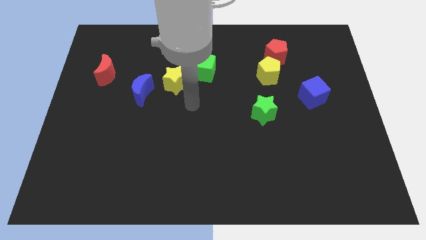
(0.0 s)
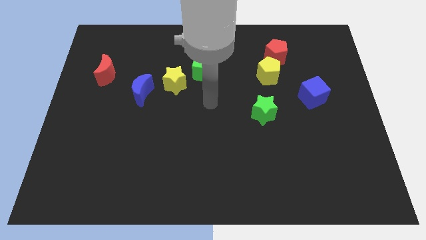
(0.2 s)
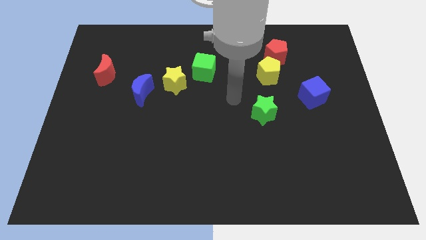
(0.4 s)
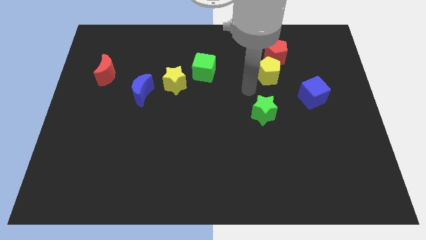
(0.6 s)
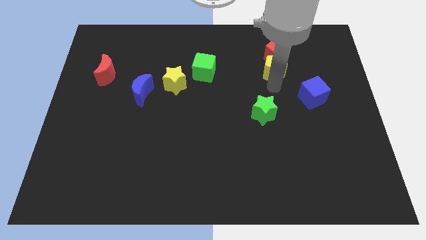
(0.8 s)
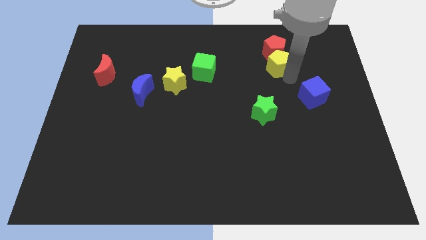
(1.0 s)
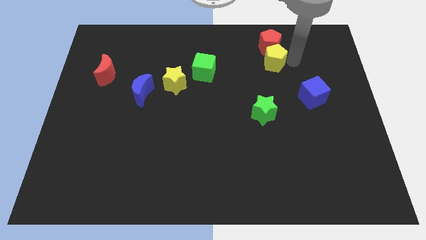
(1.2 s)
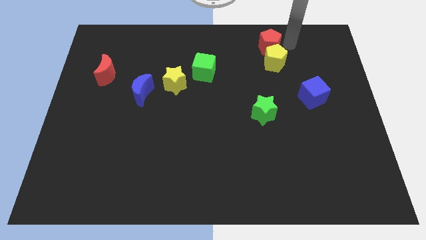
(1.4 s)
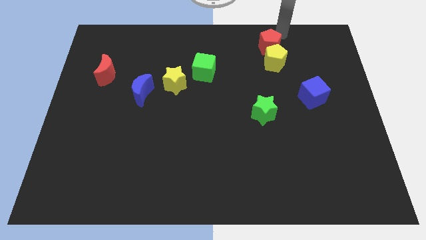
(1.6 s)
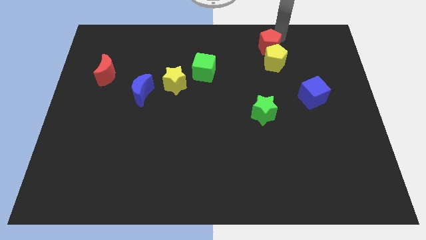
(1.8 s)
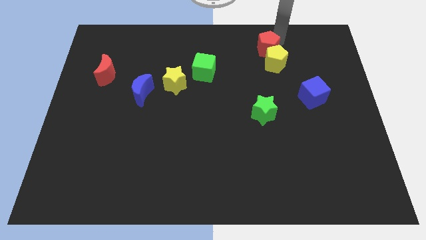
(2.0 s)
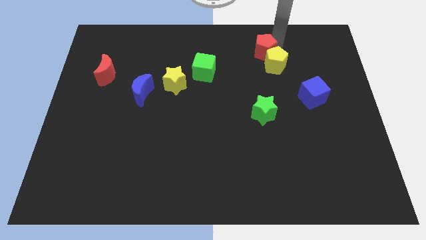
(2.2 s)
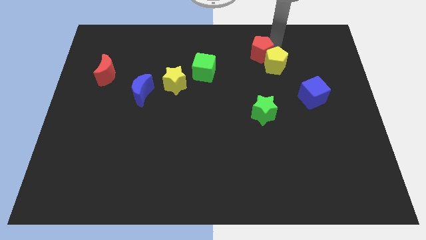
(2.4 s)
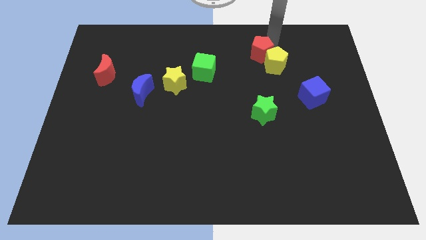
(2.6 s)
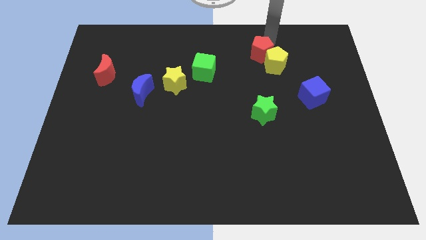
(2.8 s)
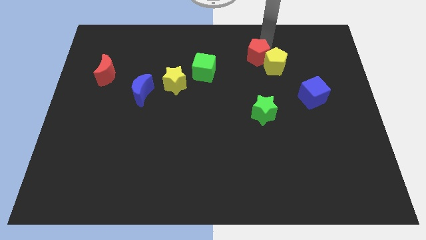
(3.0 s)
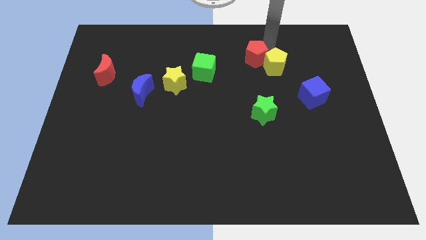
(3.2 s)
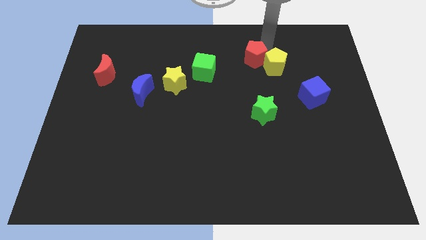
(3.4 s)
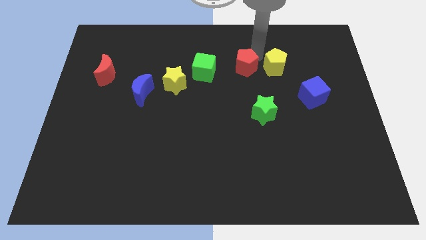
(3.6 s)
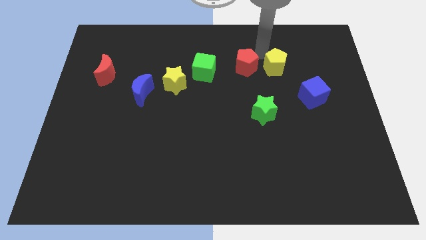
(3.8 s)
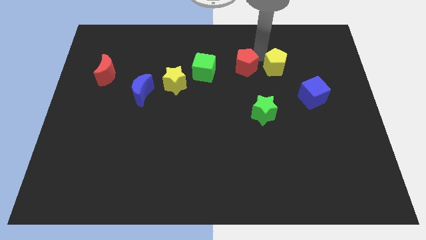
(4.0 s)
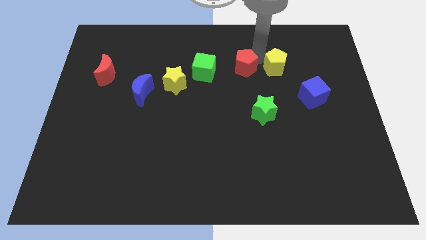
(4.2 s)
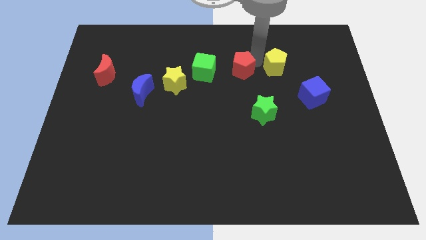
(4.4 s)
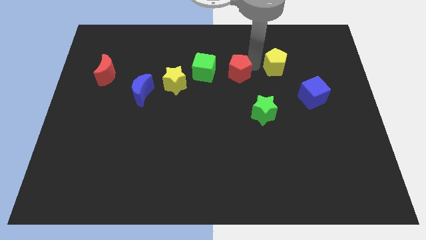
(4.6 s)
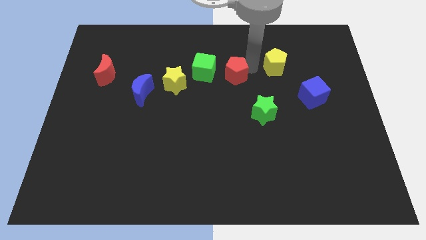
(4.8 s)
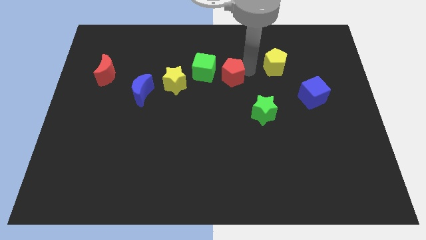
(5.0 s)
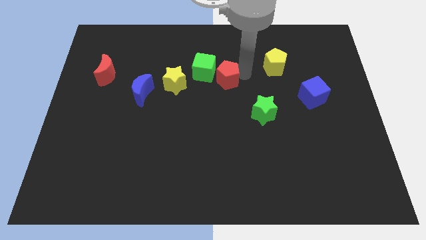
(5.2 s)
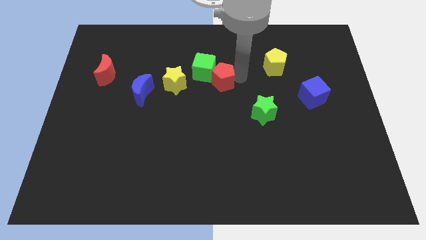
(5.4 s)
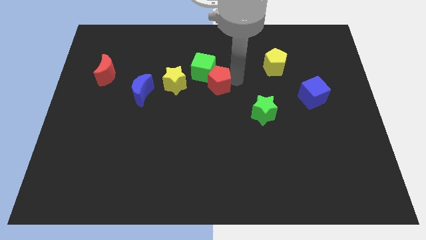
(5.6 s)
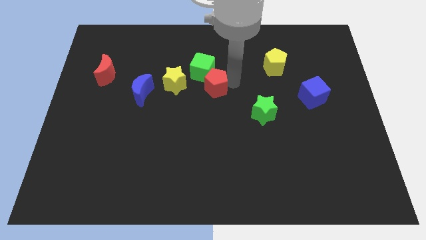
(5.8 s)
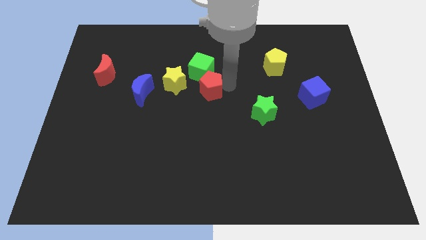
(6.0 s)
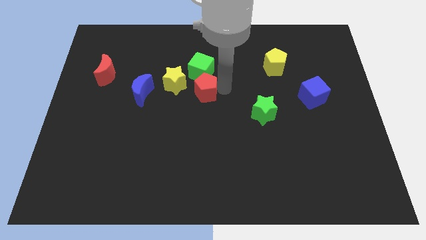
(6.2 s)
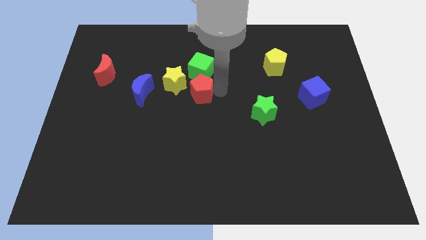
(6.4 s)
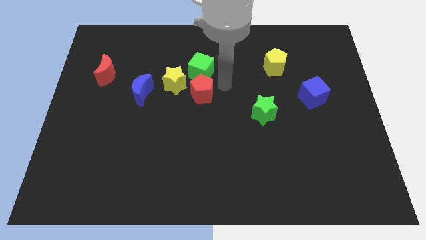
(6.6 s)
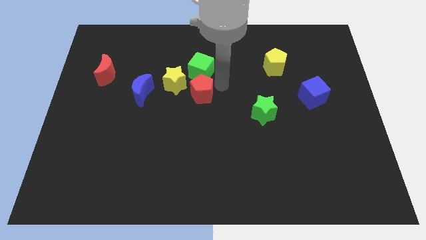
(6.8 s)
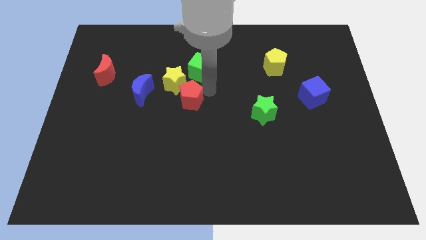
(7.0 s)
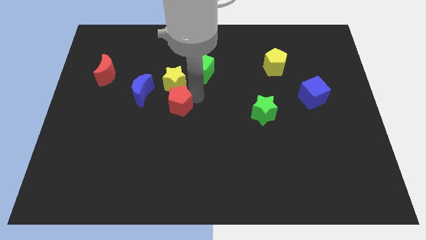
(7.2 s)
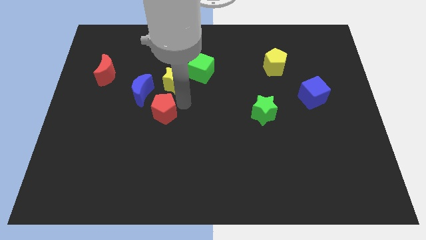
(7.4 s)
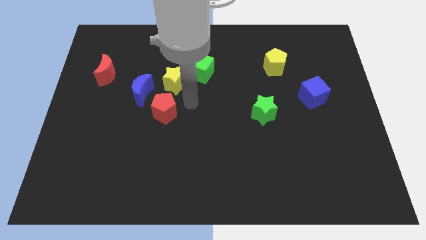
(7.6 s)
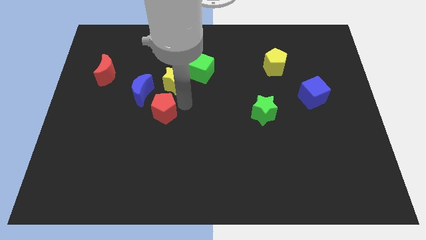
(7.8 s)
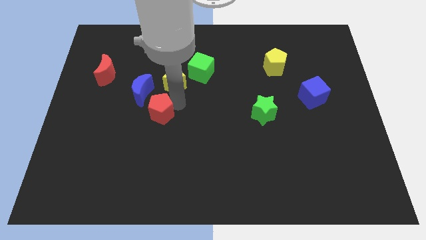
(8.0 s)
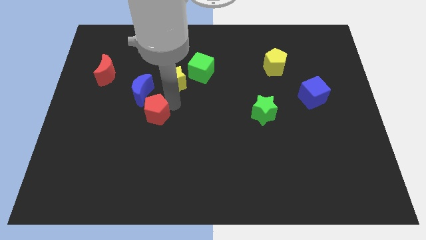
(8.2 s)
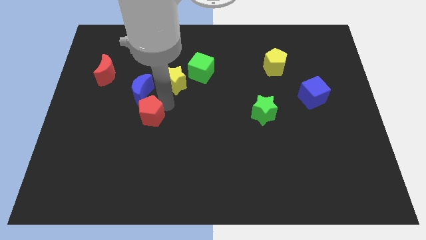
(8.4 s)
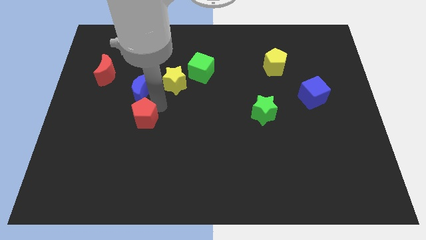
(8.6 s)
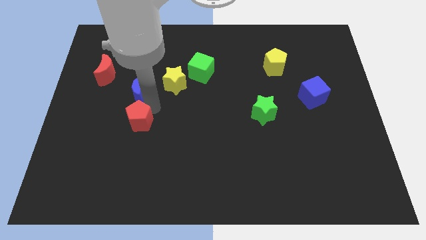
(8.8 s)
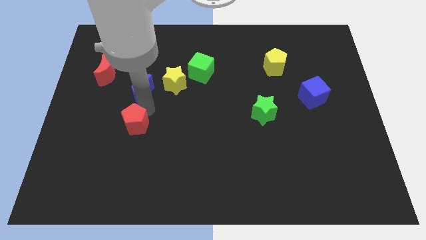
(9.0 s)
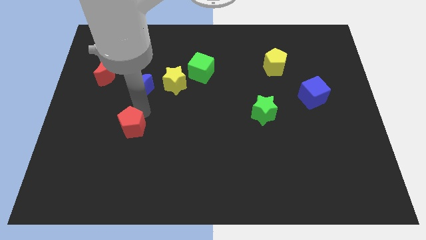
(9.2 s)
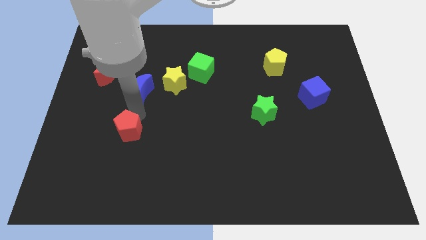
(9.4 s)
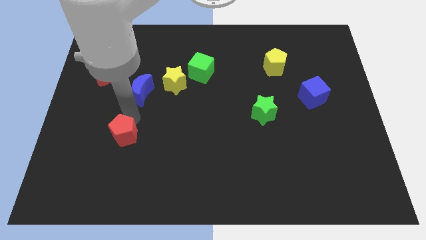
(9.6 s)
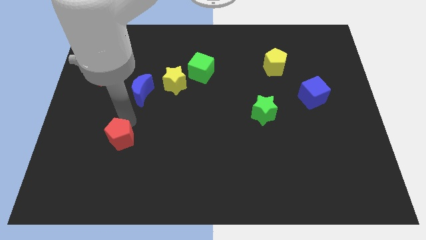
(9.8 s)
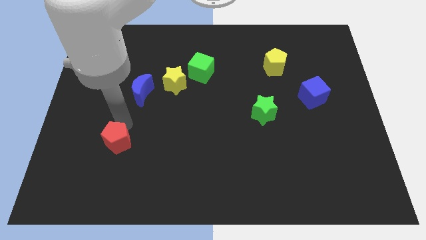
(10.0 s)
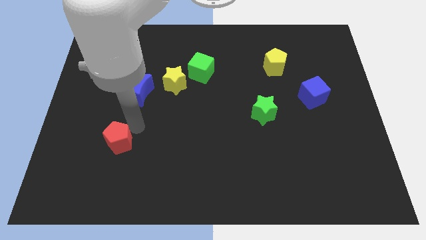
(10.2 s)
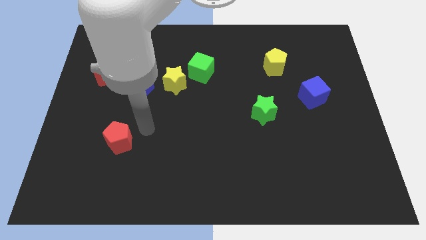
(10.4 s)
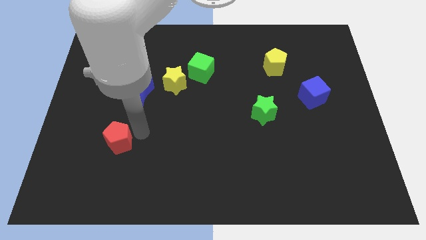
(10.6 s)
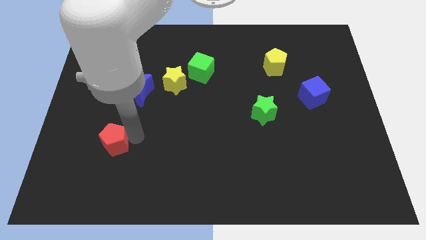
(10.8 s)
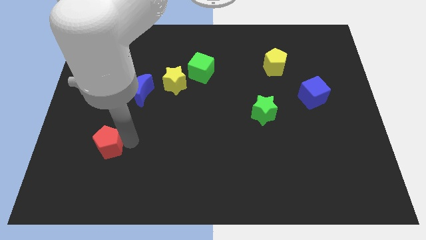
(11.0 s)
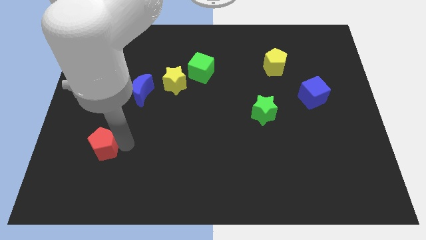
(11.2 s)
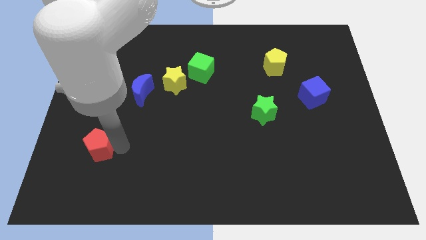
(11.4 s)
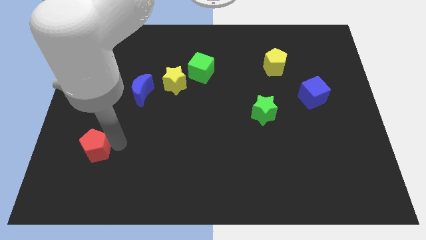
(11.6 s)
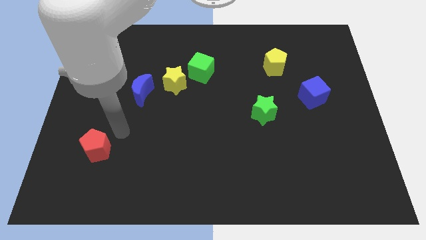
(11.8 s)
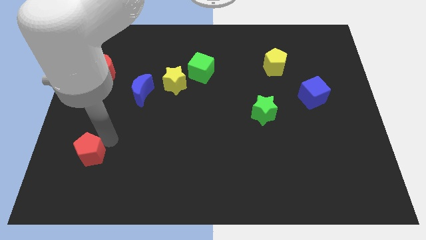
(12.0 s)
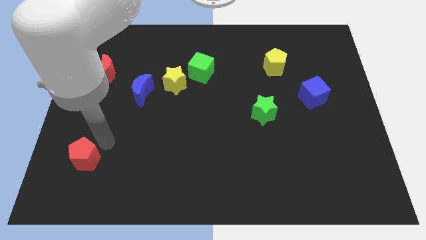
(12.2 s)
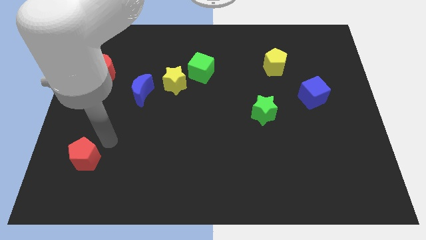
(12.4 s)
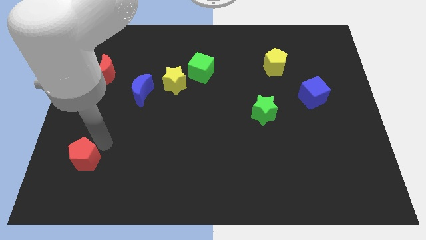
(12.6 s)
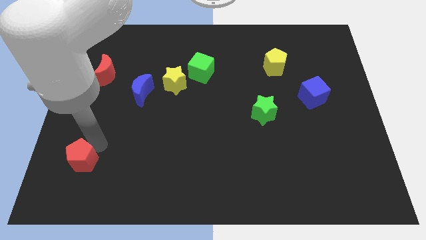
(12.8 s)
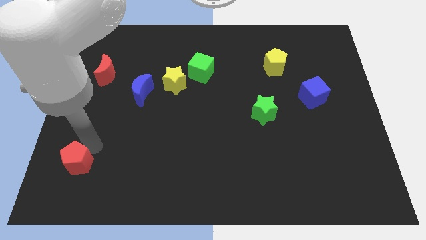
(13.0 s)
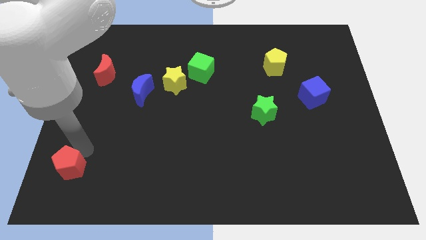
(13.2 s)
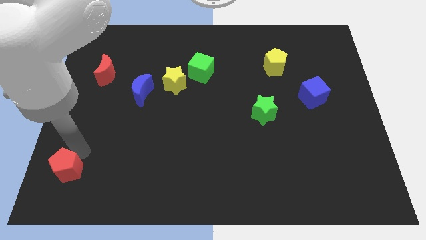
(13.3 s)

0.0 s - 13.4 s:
put the red pentagon to the bottom left

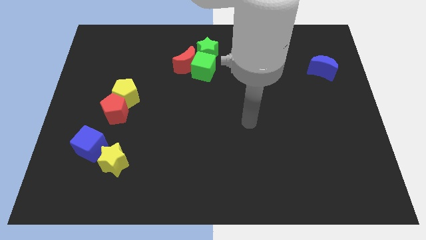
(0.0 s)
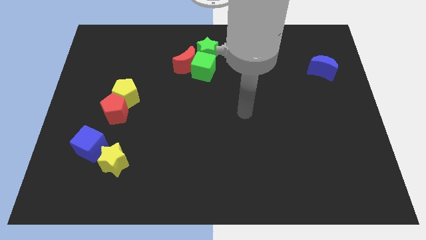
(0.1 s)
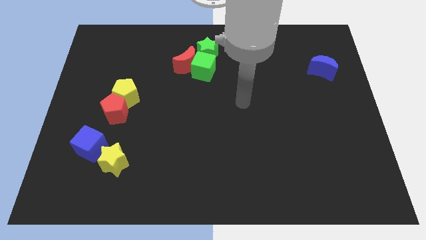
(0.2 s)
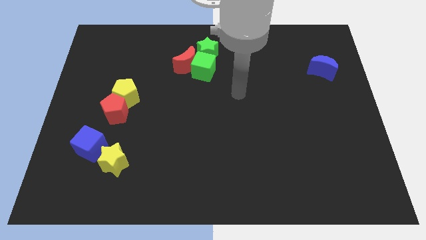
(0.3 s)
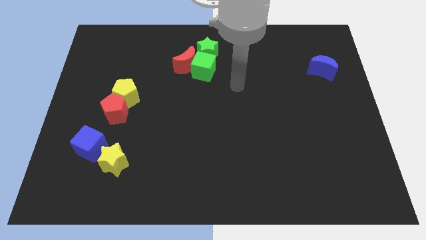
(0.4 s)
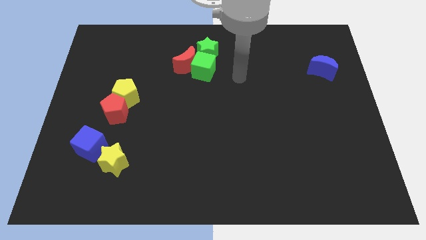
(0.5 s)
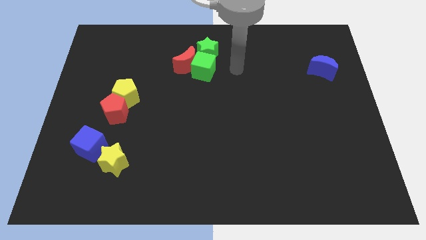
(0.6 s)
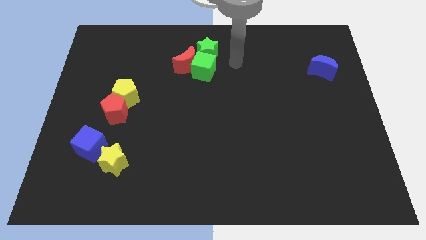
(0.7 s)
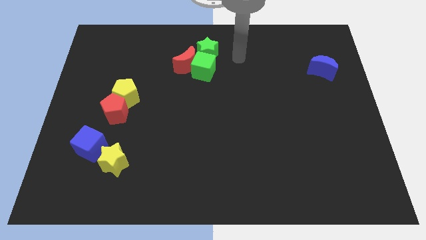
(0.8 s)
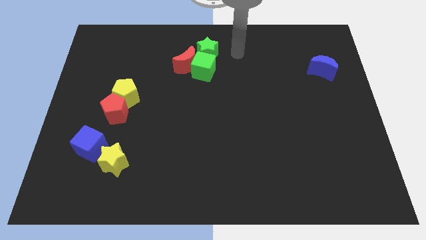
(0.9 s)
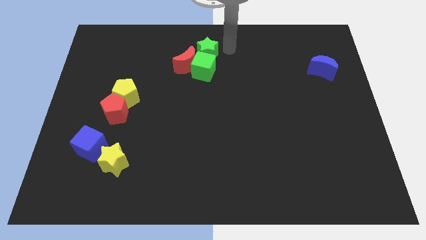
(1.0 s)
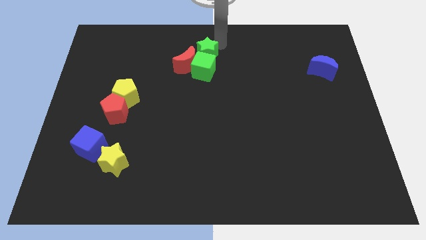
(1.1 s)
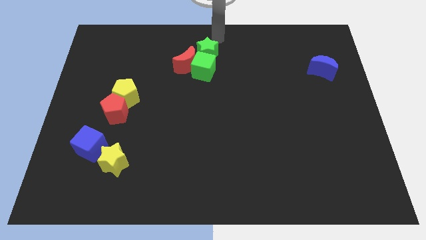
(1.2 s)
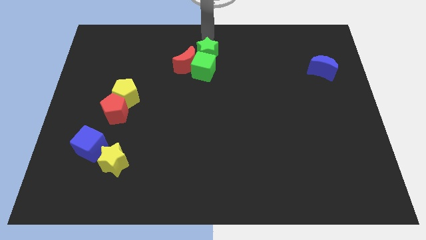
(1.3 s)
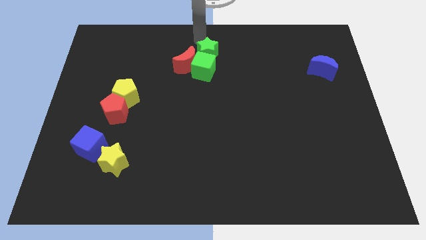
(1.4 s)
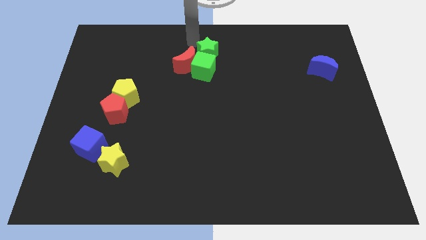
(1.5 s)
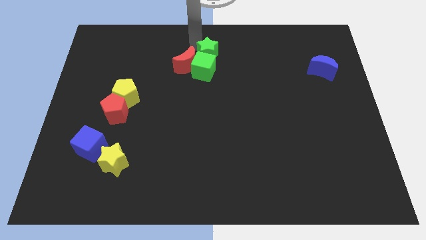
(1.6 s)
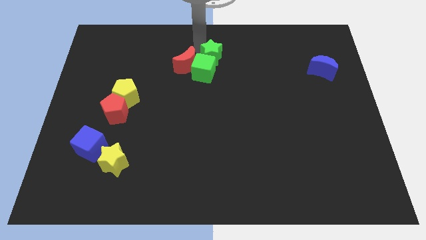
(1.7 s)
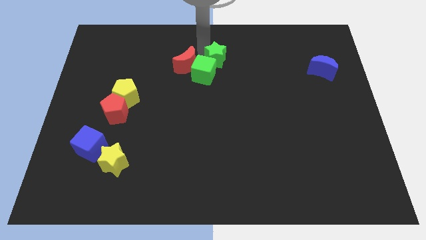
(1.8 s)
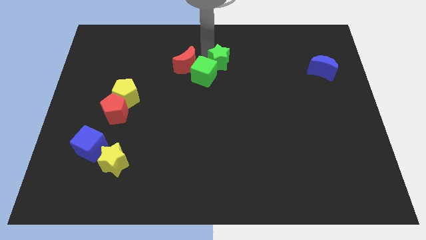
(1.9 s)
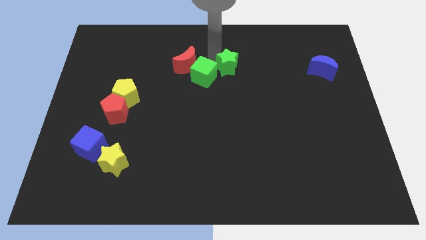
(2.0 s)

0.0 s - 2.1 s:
move the green star to the center of the board
